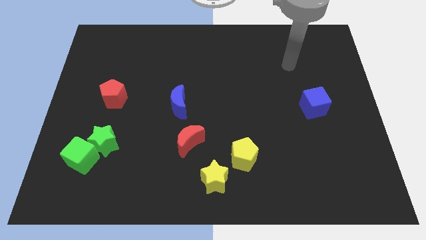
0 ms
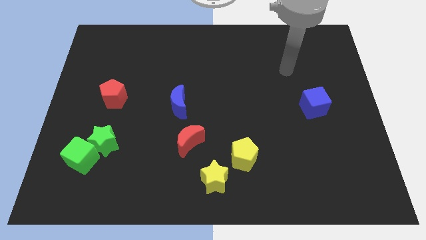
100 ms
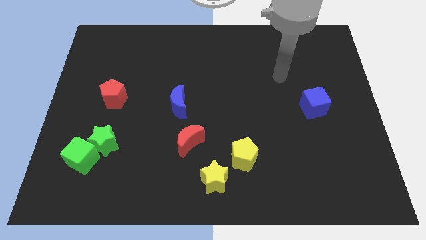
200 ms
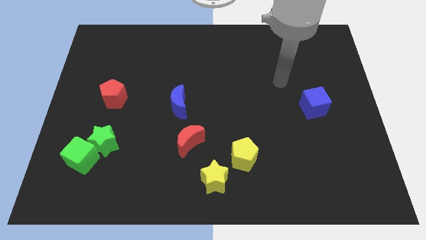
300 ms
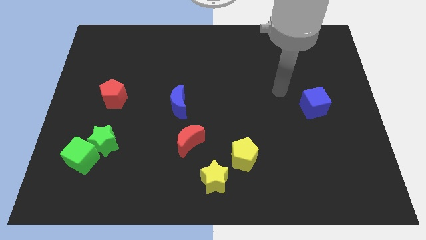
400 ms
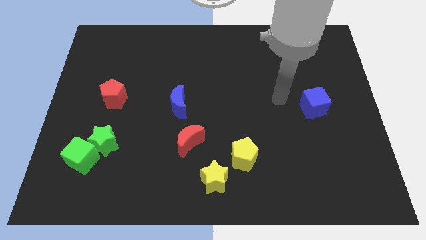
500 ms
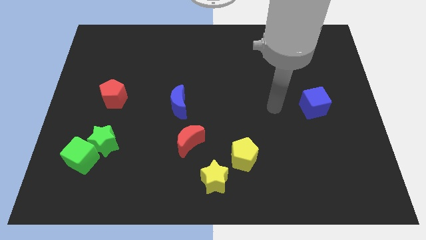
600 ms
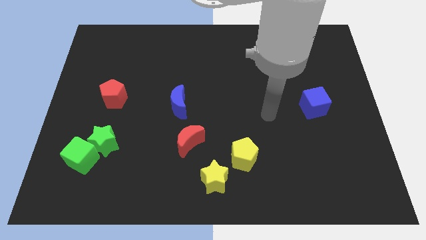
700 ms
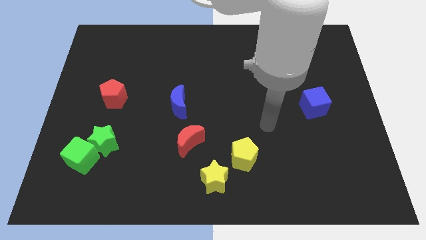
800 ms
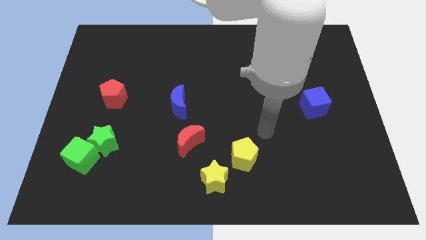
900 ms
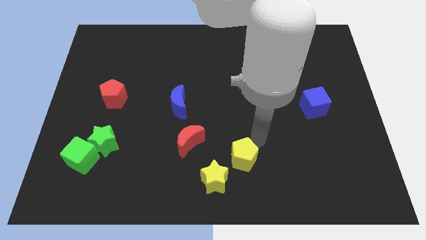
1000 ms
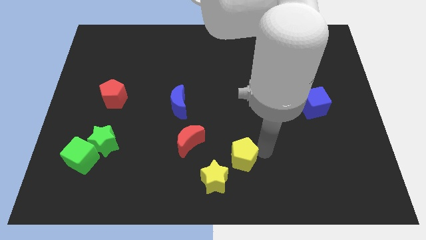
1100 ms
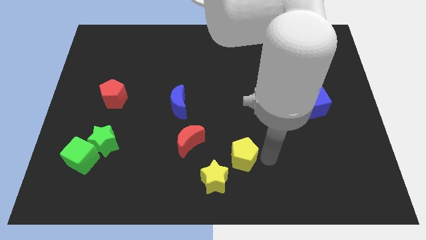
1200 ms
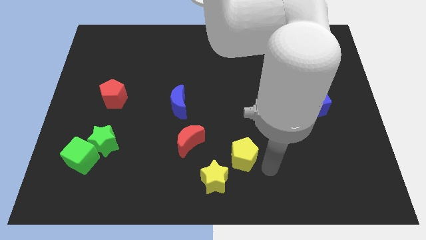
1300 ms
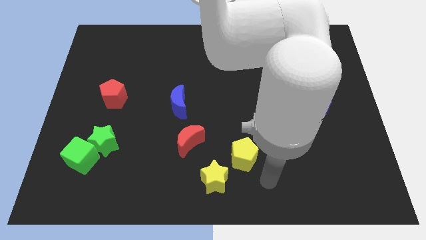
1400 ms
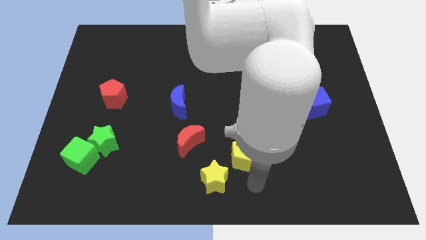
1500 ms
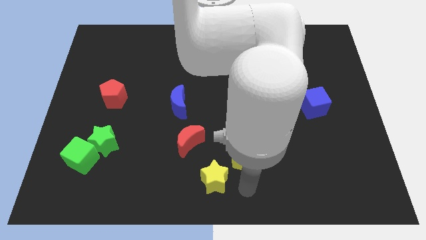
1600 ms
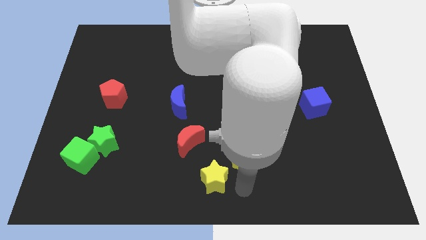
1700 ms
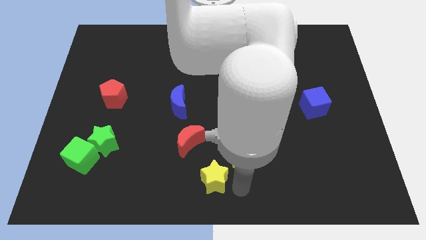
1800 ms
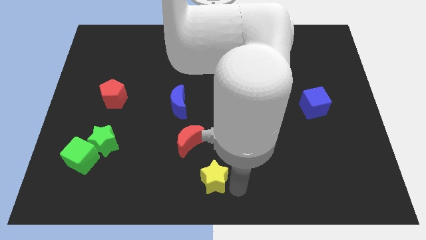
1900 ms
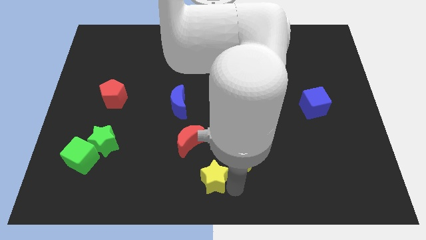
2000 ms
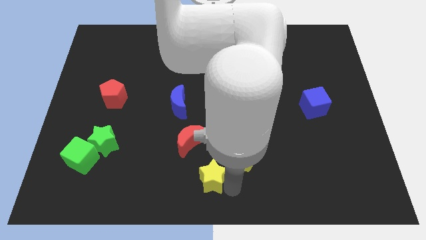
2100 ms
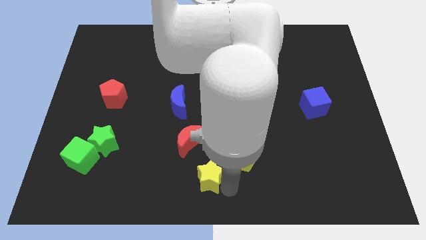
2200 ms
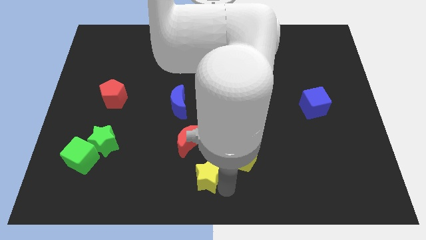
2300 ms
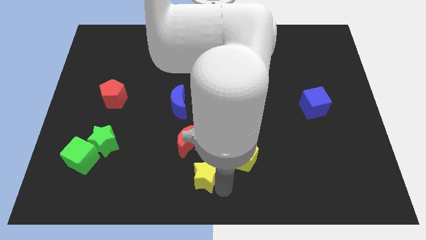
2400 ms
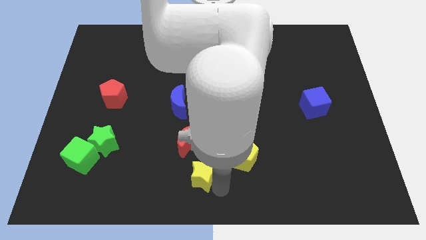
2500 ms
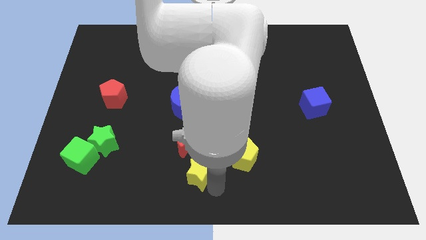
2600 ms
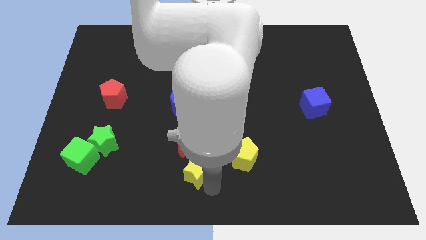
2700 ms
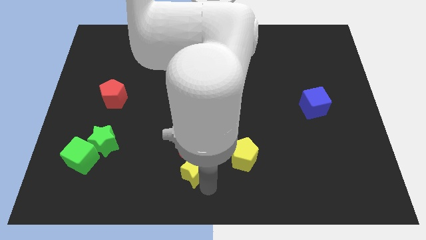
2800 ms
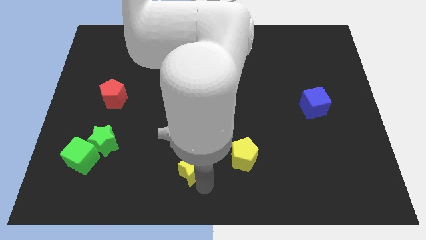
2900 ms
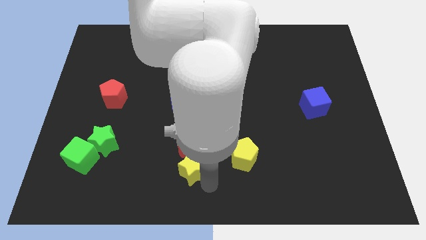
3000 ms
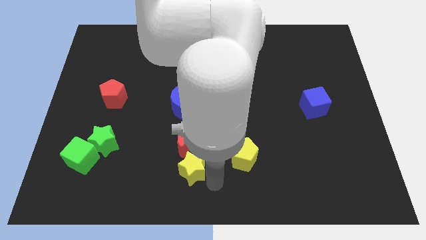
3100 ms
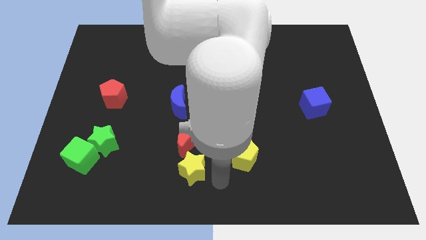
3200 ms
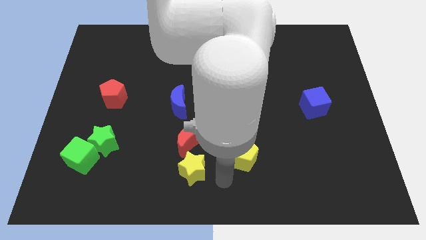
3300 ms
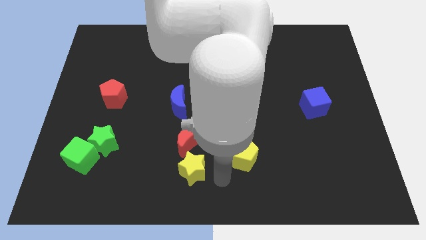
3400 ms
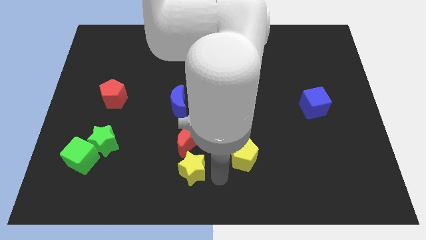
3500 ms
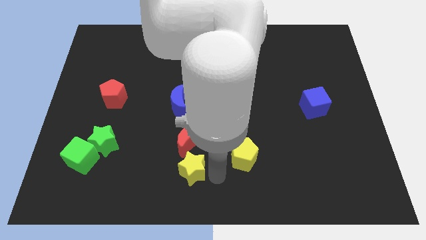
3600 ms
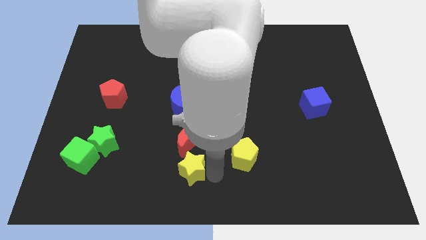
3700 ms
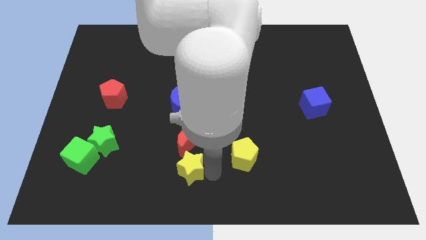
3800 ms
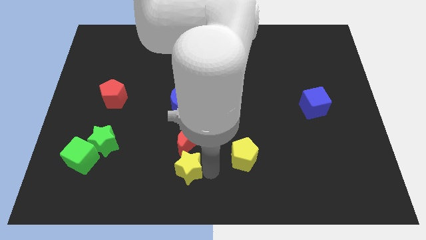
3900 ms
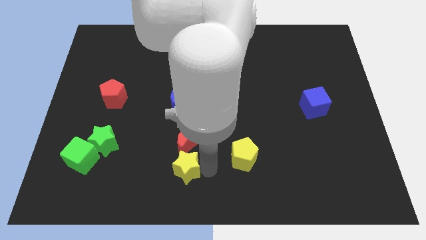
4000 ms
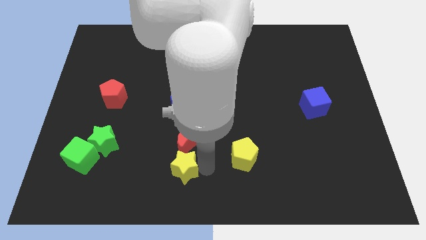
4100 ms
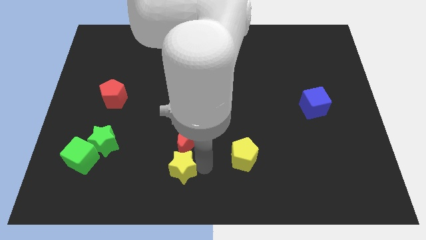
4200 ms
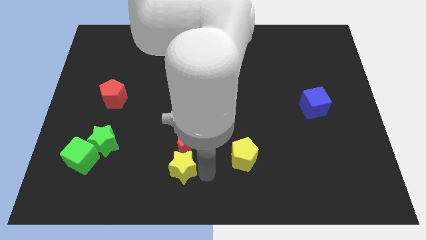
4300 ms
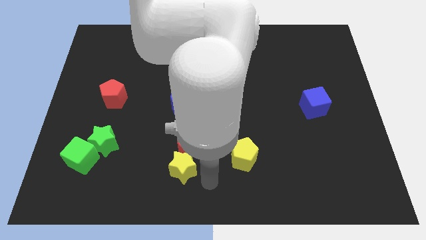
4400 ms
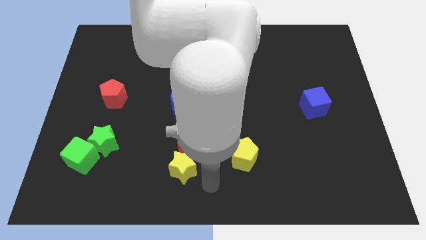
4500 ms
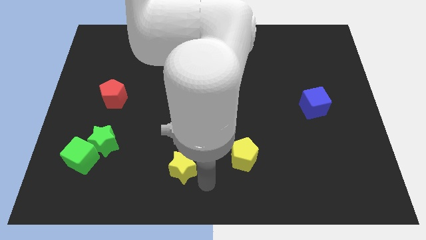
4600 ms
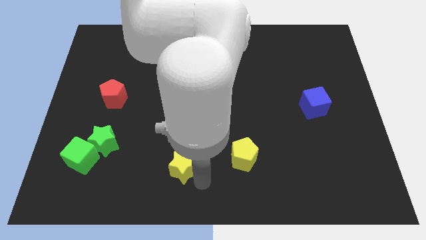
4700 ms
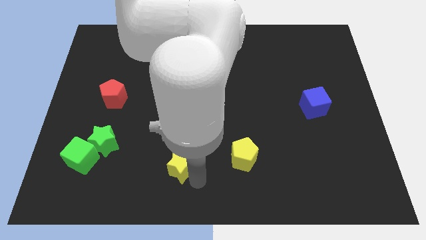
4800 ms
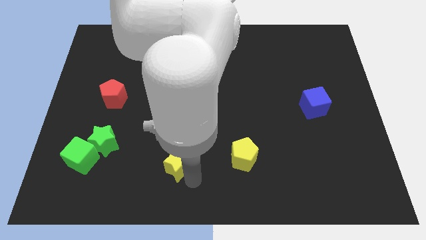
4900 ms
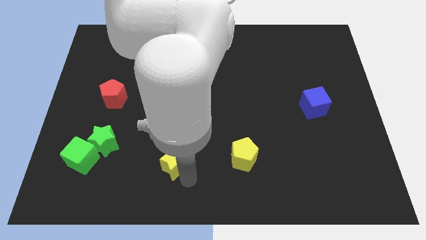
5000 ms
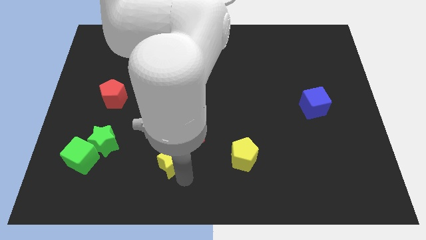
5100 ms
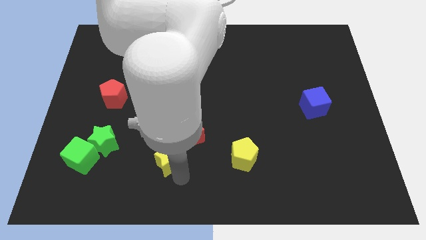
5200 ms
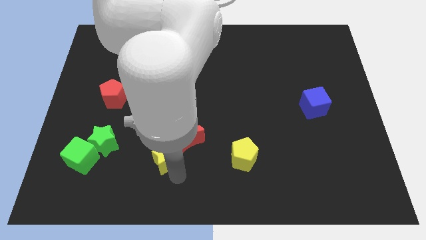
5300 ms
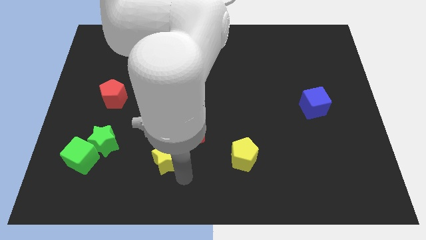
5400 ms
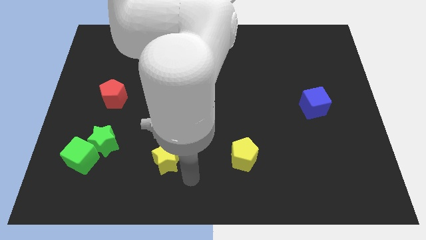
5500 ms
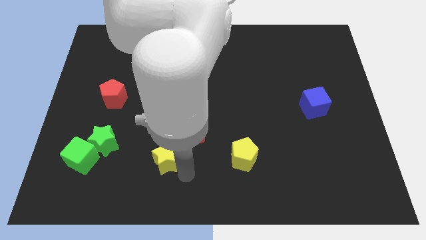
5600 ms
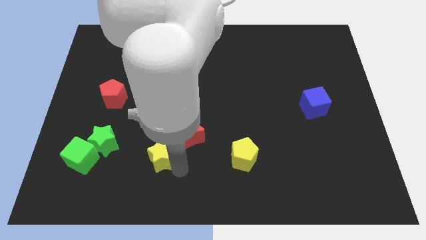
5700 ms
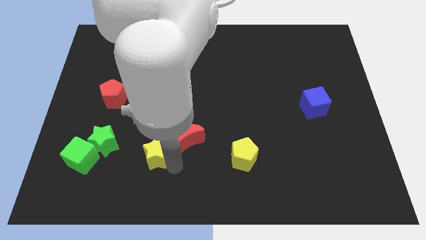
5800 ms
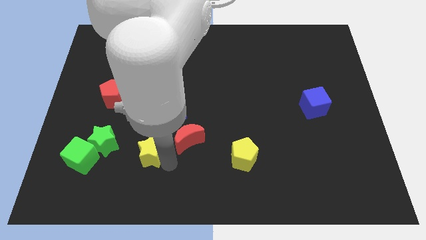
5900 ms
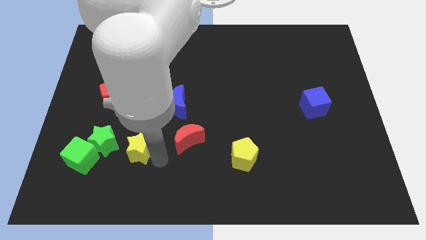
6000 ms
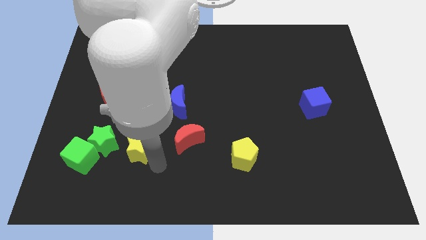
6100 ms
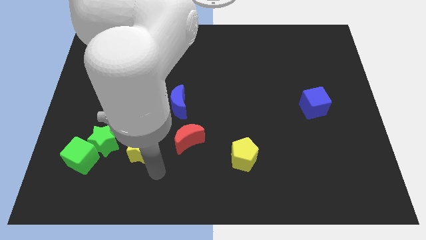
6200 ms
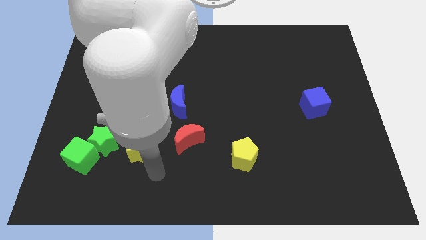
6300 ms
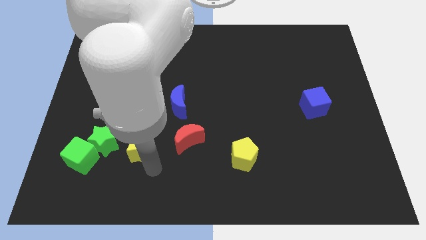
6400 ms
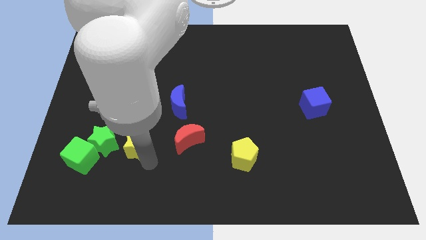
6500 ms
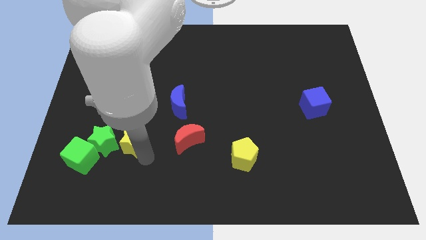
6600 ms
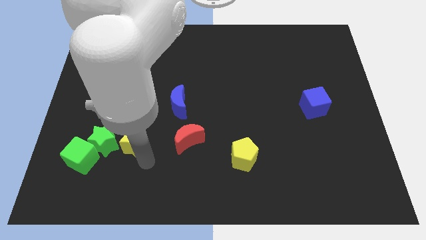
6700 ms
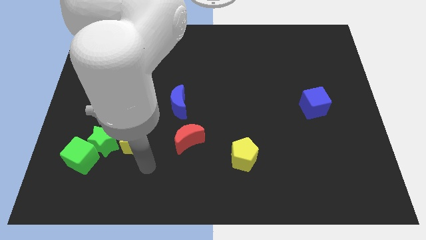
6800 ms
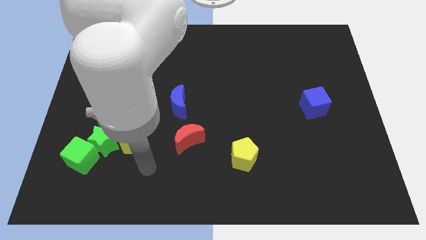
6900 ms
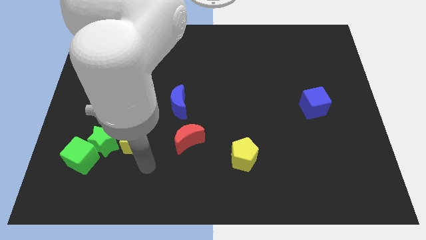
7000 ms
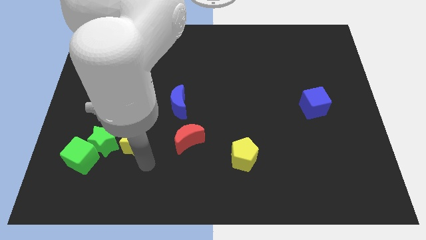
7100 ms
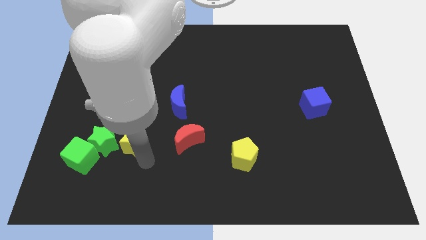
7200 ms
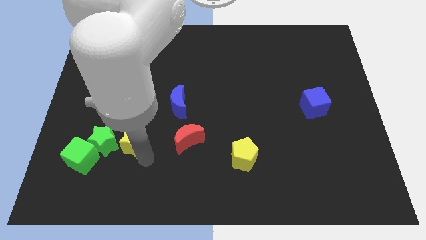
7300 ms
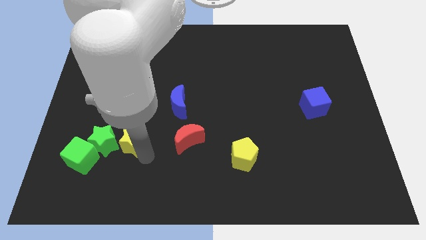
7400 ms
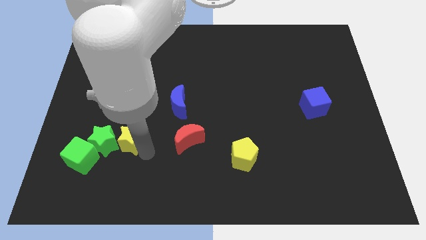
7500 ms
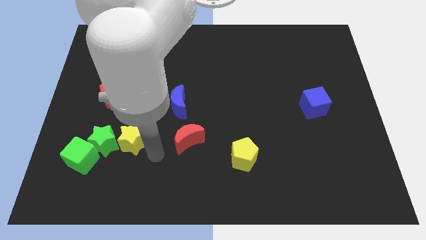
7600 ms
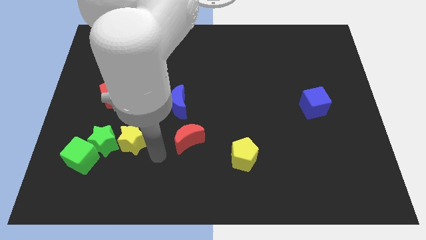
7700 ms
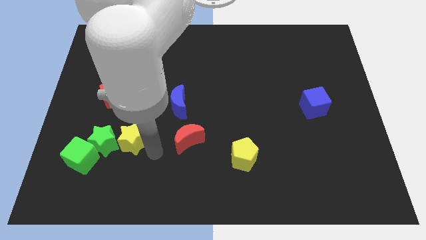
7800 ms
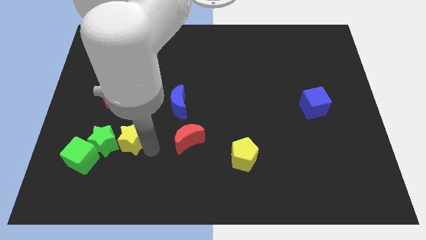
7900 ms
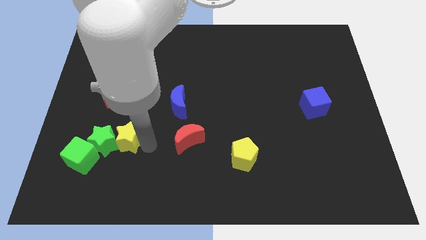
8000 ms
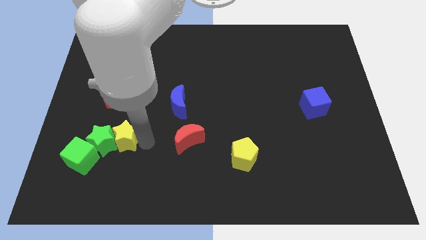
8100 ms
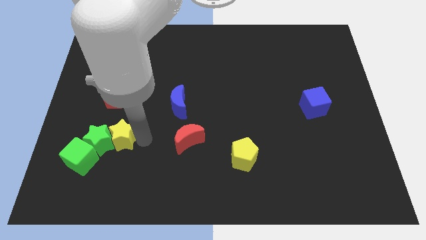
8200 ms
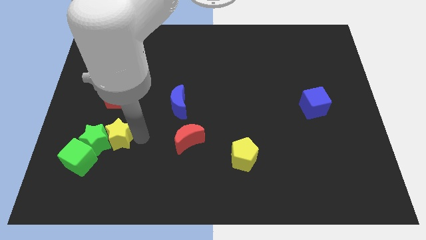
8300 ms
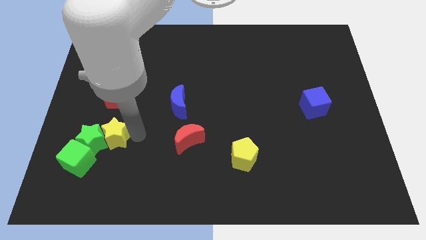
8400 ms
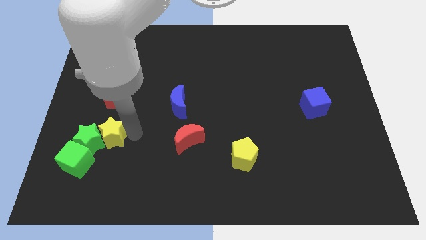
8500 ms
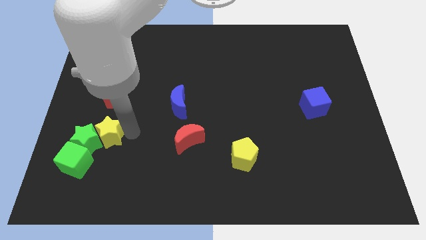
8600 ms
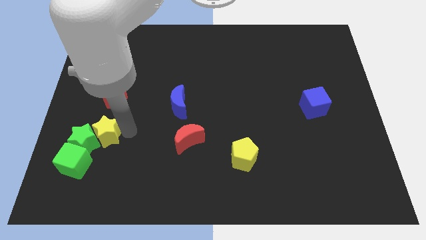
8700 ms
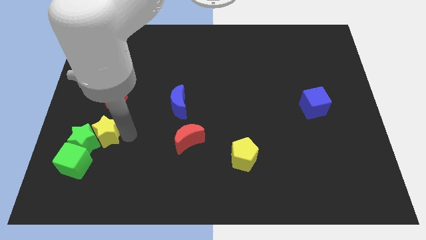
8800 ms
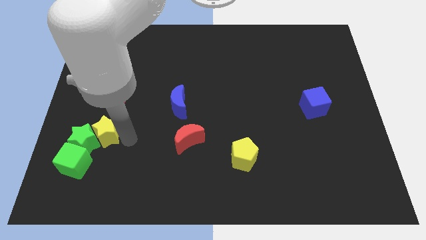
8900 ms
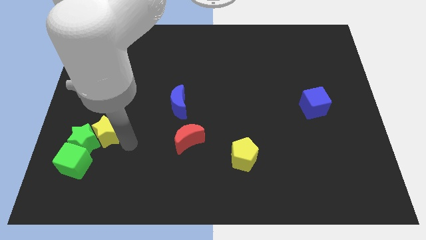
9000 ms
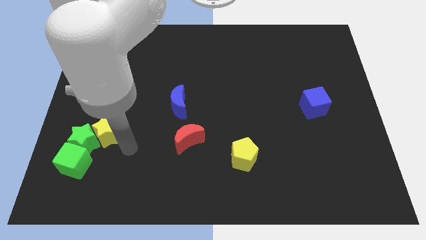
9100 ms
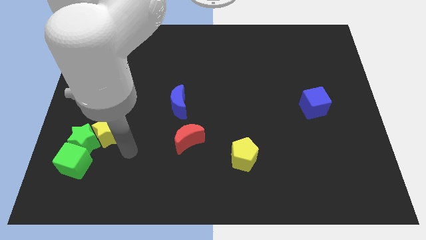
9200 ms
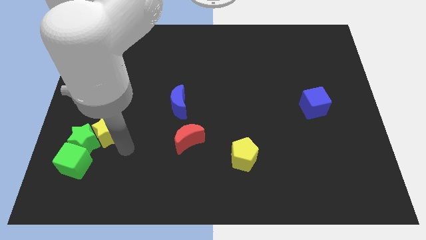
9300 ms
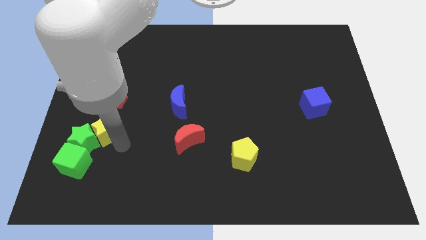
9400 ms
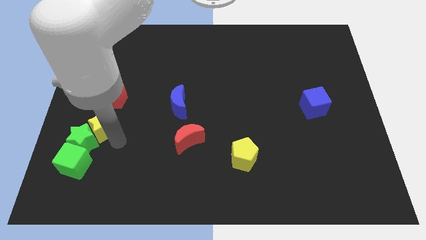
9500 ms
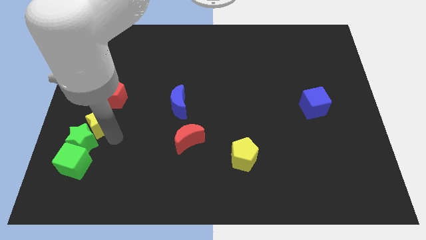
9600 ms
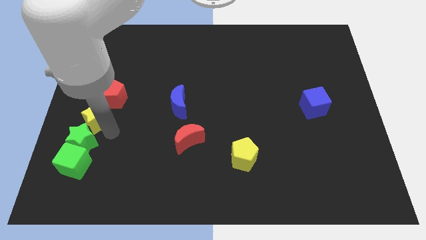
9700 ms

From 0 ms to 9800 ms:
move the yellow star to the left side of the board
